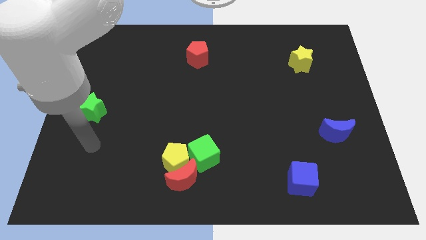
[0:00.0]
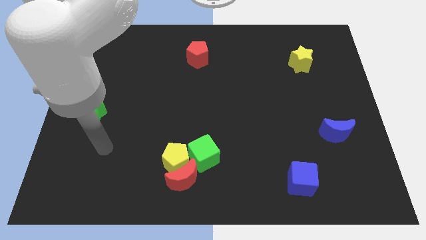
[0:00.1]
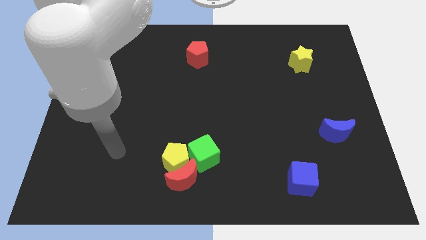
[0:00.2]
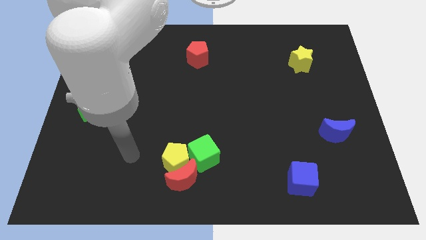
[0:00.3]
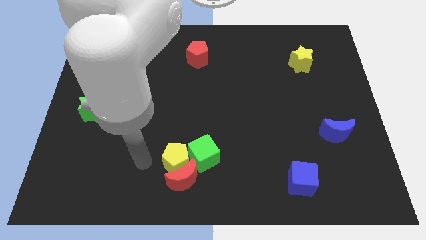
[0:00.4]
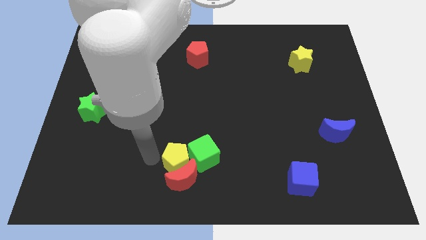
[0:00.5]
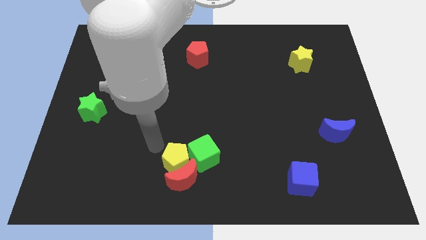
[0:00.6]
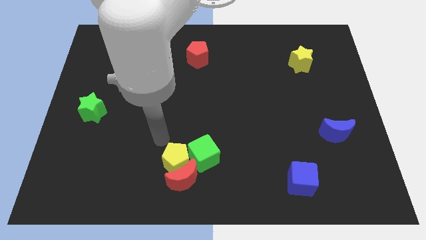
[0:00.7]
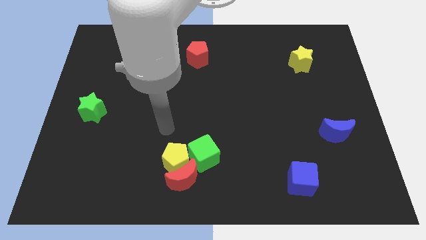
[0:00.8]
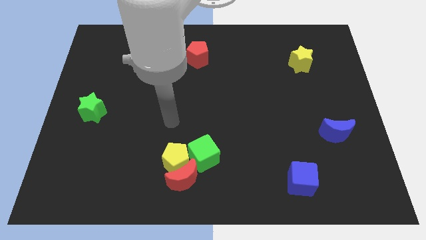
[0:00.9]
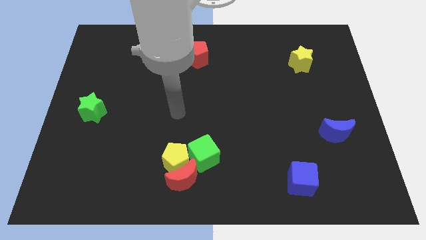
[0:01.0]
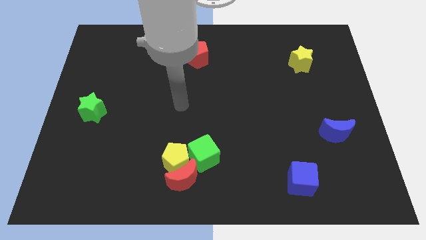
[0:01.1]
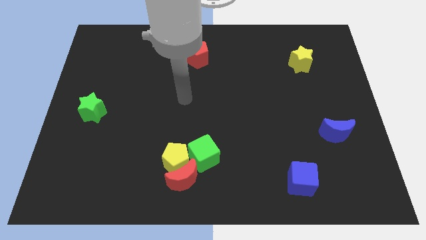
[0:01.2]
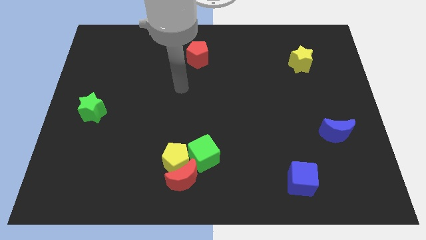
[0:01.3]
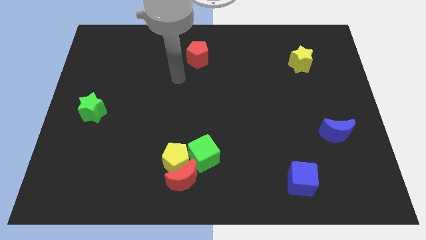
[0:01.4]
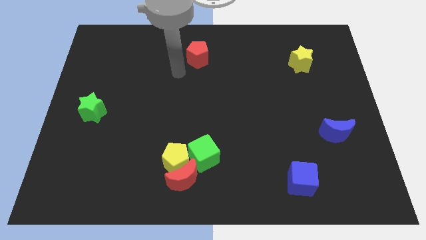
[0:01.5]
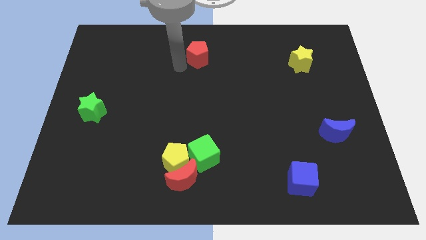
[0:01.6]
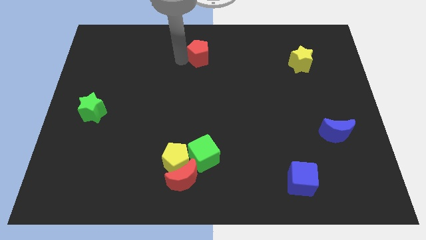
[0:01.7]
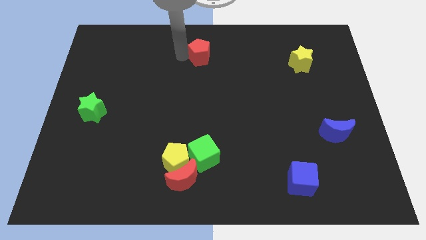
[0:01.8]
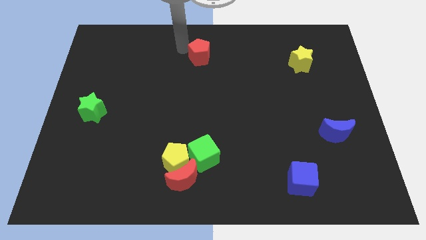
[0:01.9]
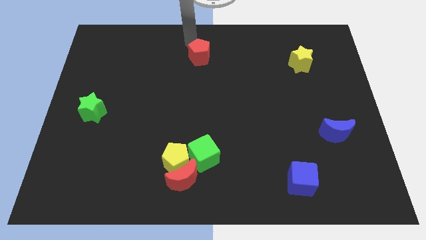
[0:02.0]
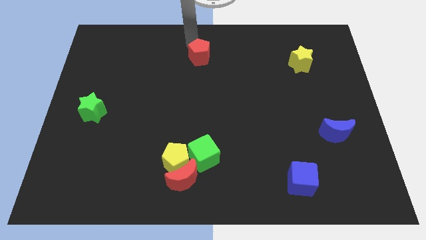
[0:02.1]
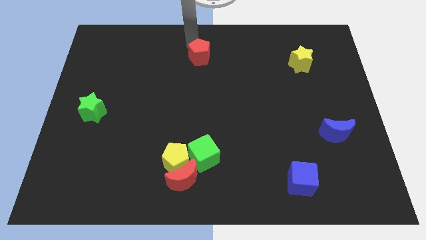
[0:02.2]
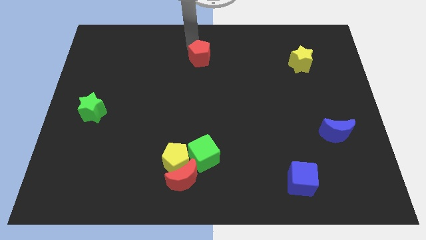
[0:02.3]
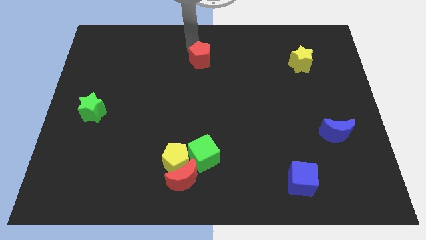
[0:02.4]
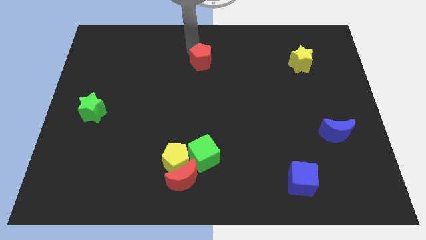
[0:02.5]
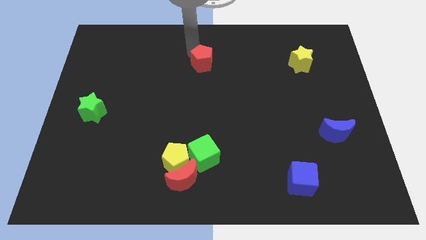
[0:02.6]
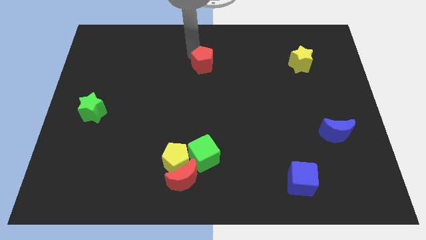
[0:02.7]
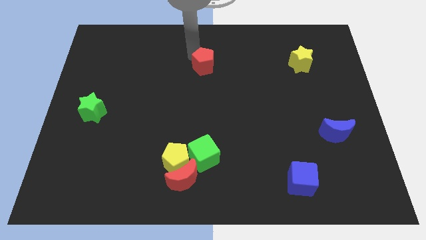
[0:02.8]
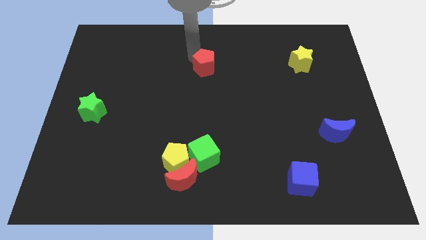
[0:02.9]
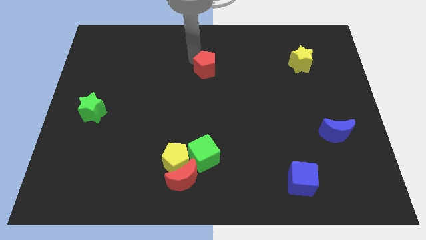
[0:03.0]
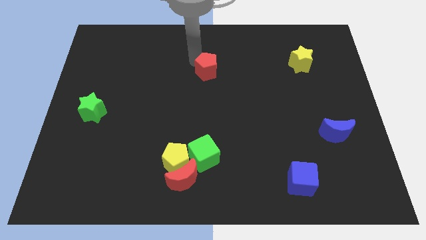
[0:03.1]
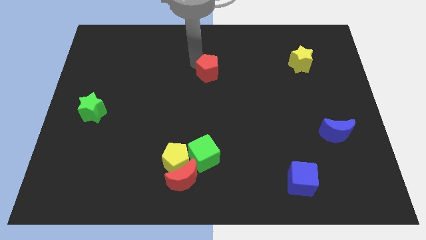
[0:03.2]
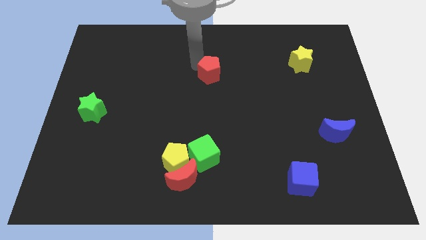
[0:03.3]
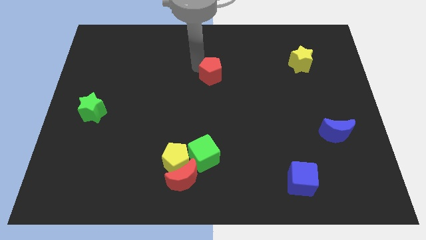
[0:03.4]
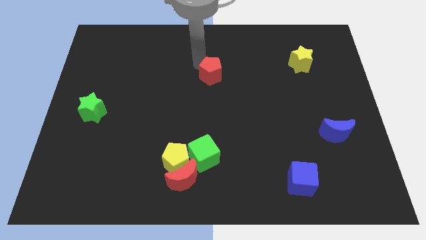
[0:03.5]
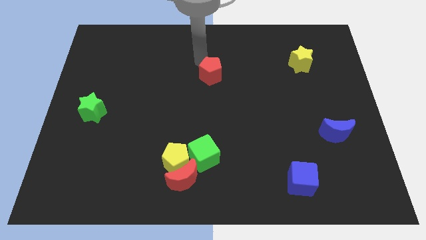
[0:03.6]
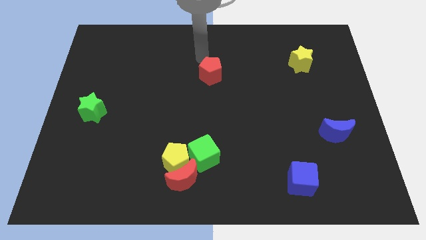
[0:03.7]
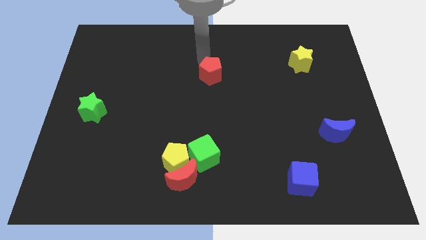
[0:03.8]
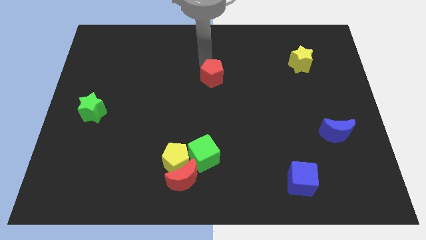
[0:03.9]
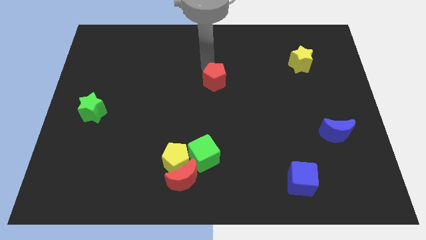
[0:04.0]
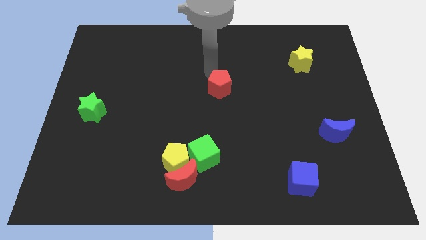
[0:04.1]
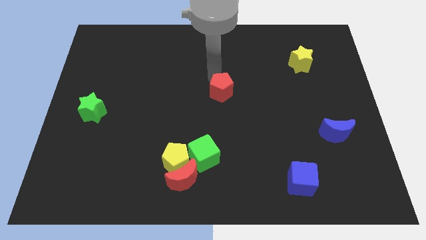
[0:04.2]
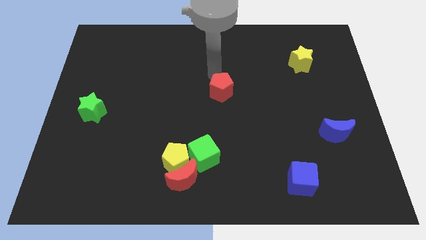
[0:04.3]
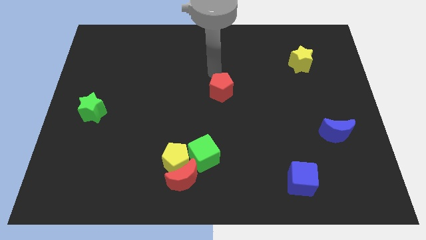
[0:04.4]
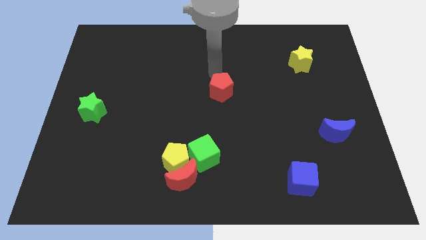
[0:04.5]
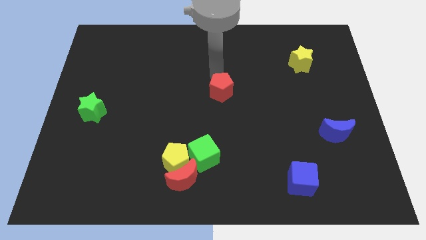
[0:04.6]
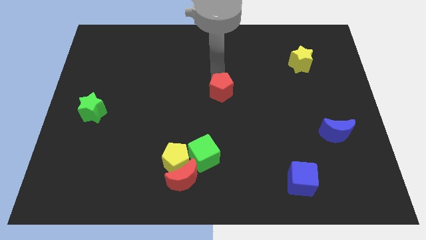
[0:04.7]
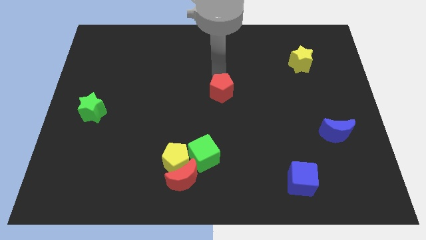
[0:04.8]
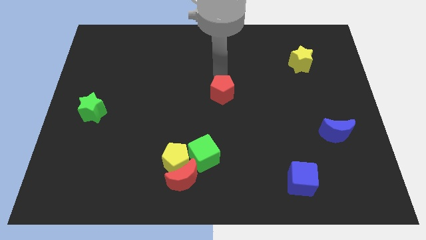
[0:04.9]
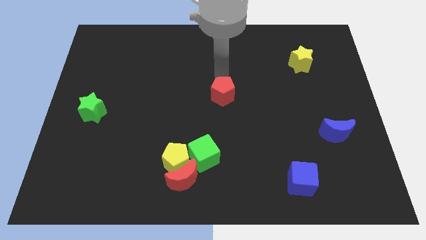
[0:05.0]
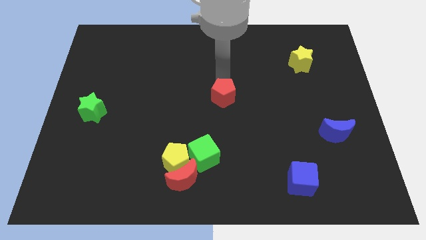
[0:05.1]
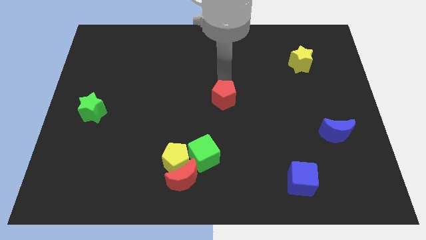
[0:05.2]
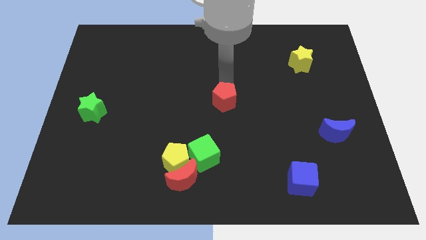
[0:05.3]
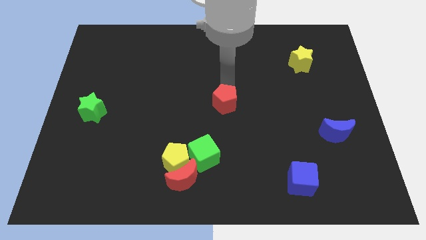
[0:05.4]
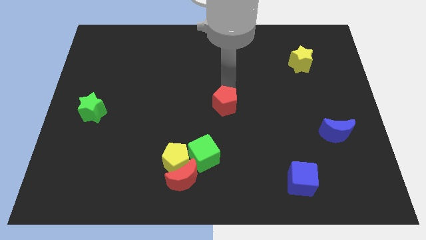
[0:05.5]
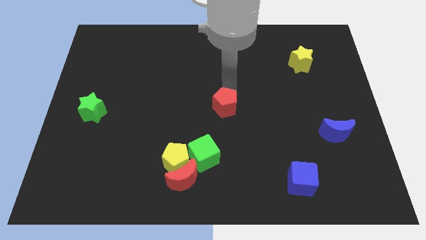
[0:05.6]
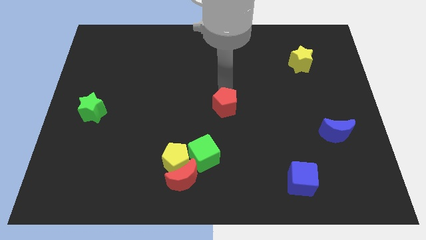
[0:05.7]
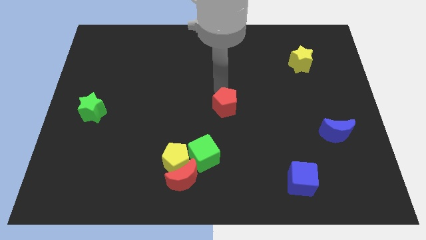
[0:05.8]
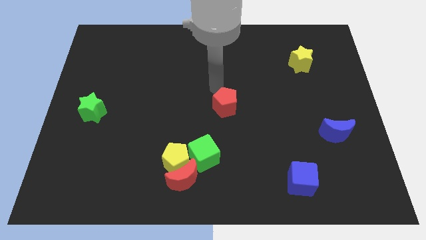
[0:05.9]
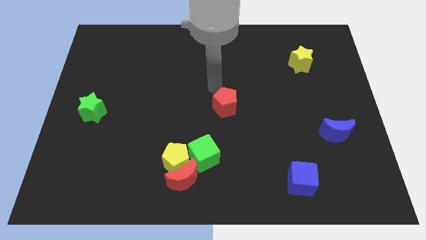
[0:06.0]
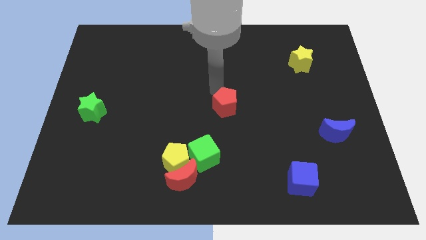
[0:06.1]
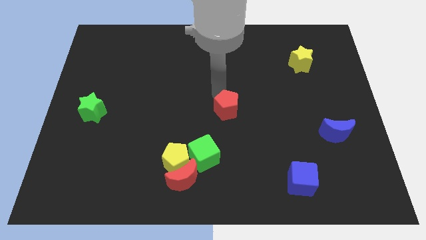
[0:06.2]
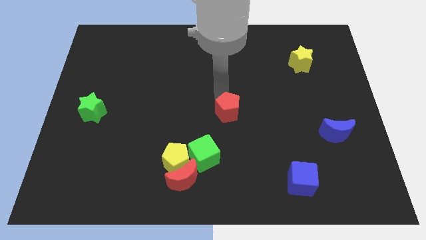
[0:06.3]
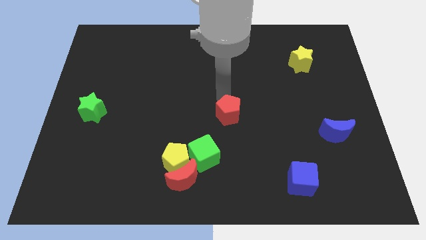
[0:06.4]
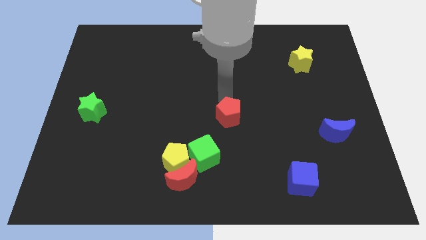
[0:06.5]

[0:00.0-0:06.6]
slide the red pentagon to the top right of the green cube
